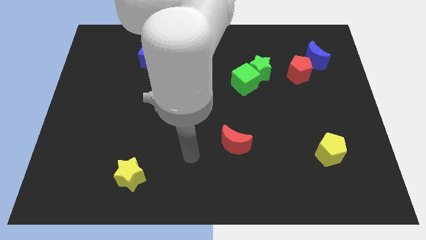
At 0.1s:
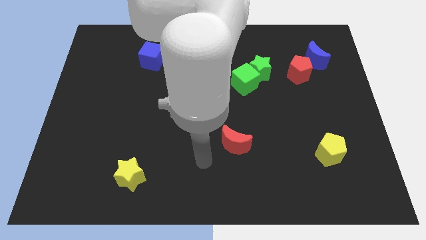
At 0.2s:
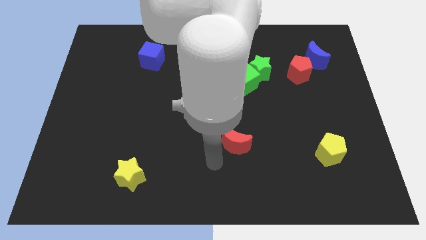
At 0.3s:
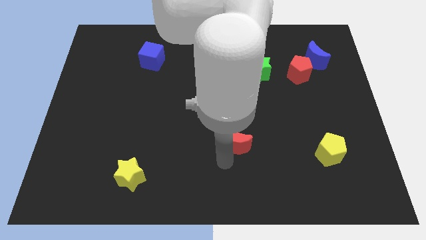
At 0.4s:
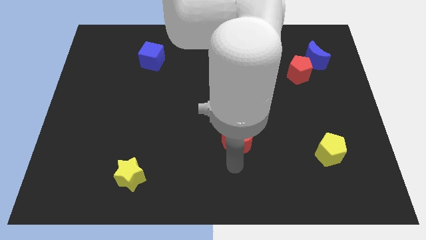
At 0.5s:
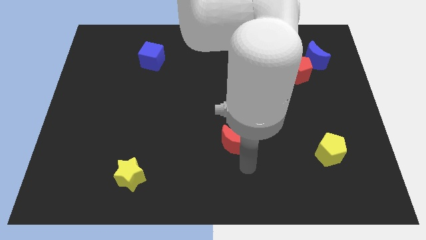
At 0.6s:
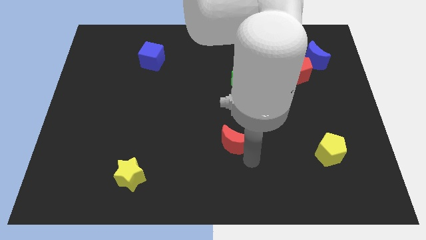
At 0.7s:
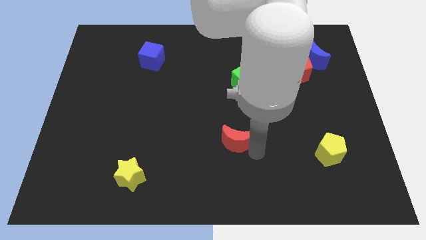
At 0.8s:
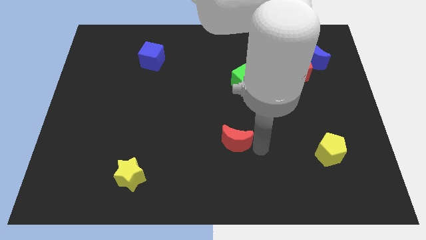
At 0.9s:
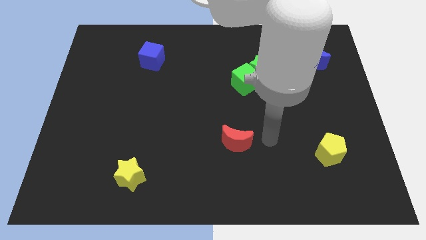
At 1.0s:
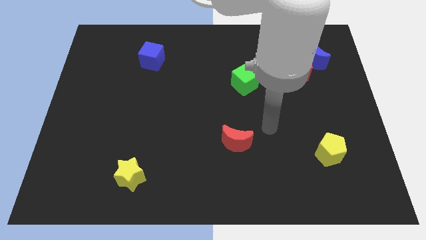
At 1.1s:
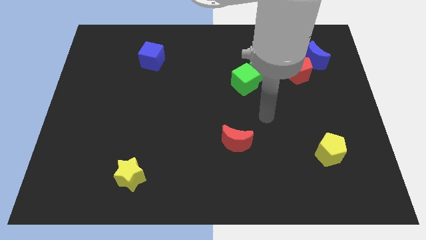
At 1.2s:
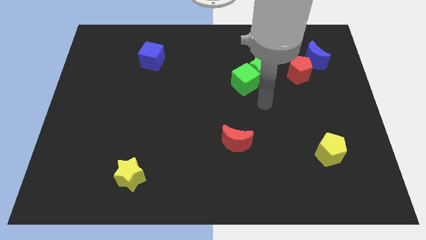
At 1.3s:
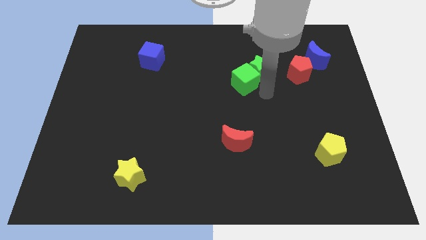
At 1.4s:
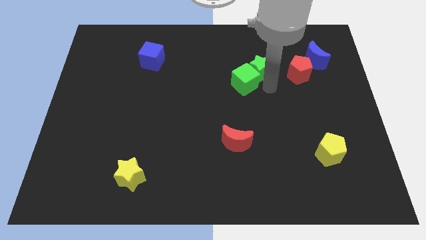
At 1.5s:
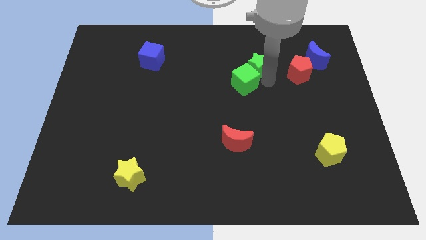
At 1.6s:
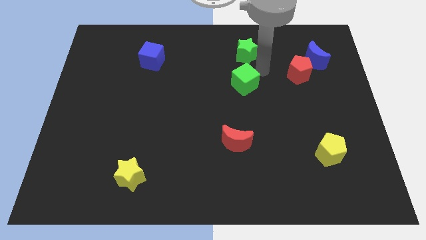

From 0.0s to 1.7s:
move the green cube away from the green star

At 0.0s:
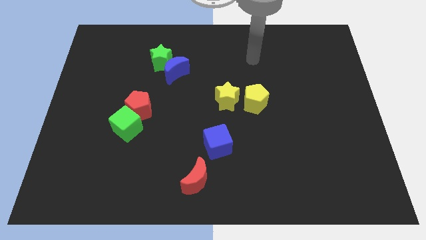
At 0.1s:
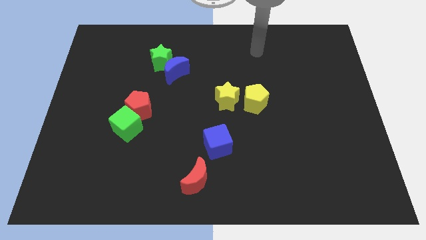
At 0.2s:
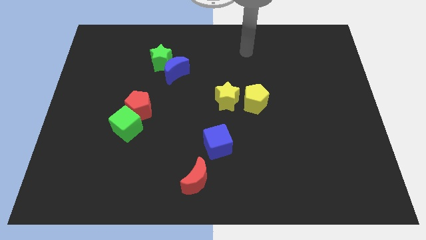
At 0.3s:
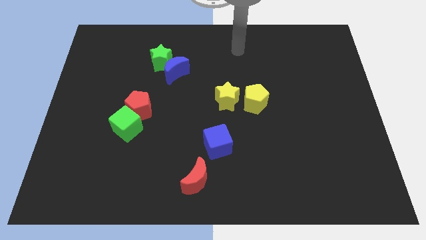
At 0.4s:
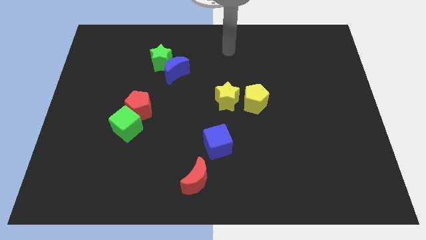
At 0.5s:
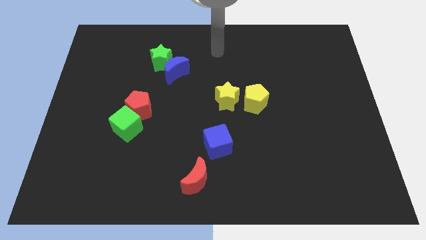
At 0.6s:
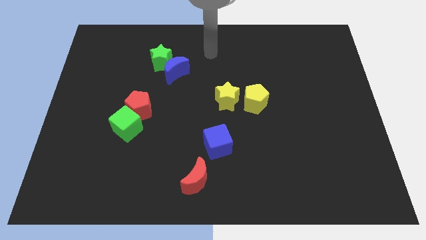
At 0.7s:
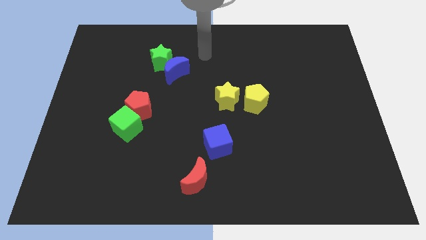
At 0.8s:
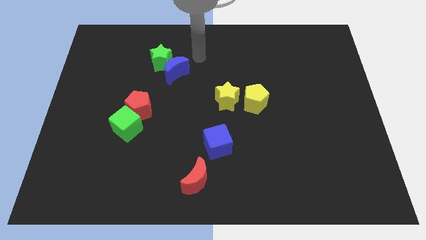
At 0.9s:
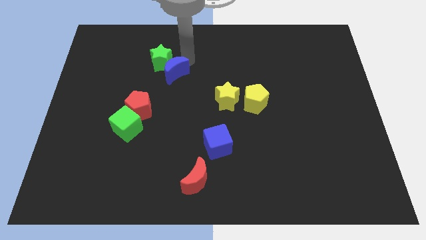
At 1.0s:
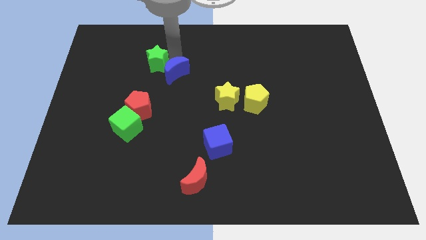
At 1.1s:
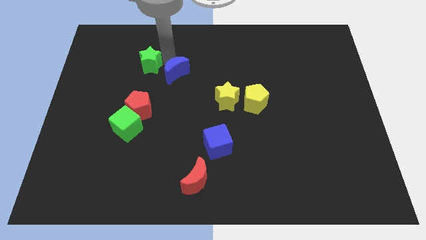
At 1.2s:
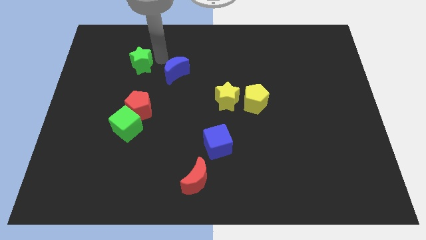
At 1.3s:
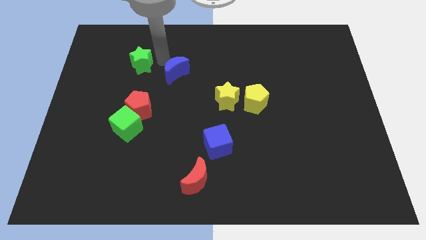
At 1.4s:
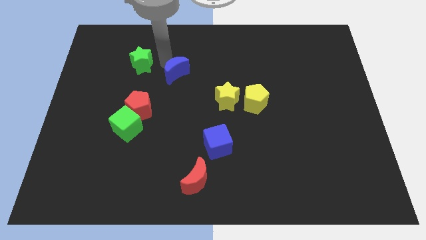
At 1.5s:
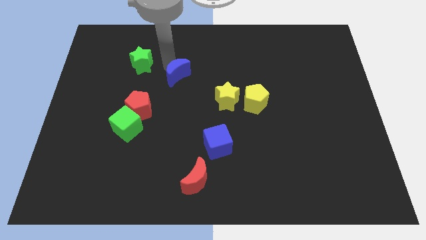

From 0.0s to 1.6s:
separate the blue moon from the green star

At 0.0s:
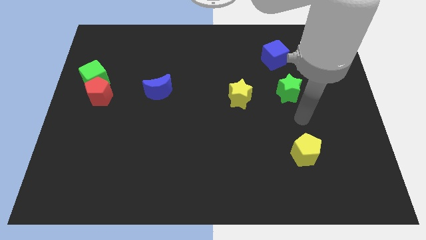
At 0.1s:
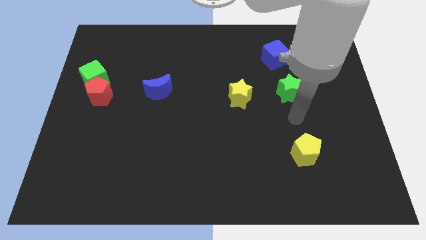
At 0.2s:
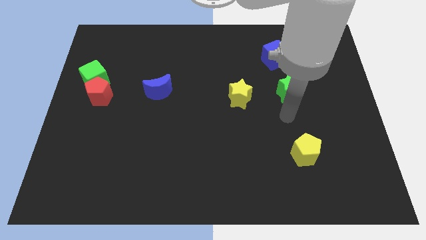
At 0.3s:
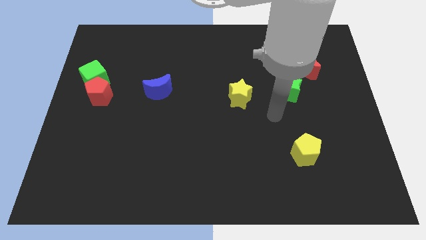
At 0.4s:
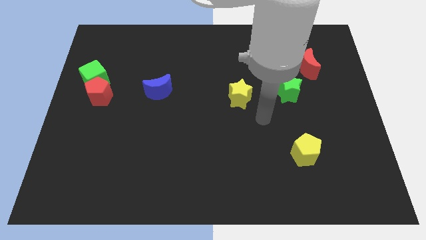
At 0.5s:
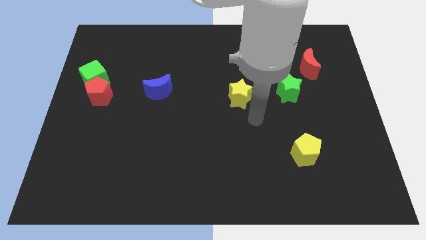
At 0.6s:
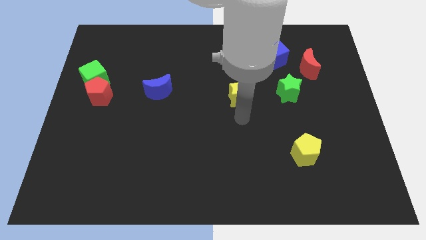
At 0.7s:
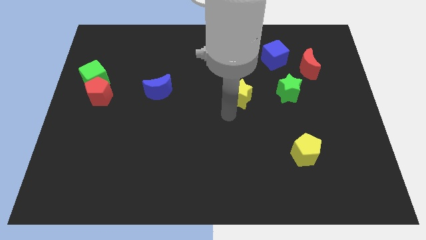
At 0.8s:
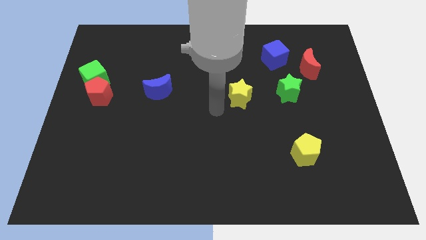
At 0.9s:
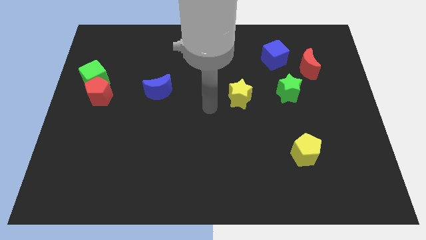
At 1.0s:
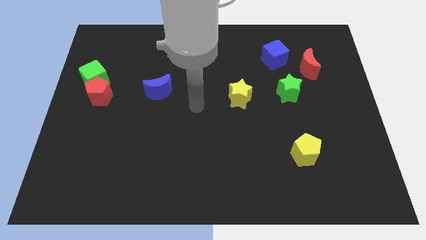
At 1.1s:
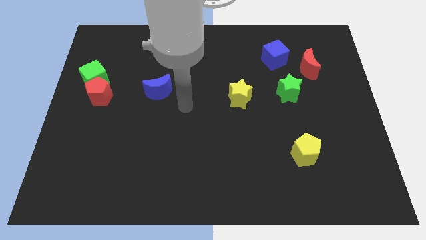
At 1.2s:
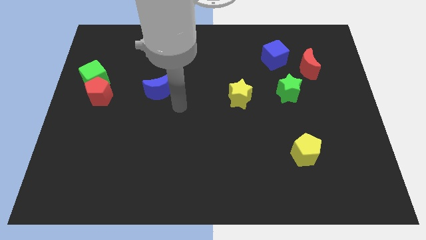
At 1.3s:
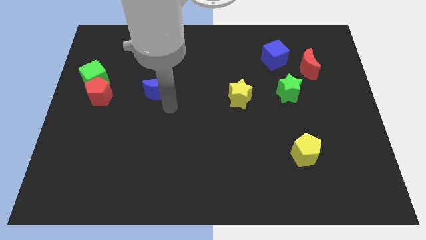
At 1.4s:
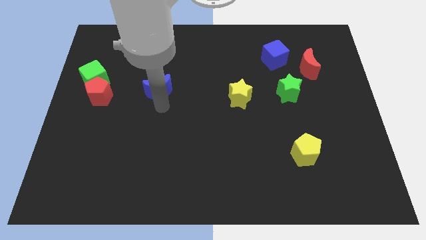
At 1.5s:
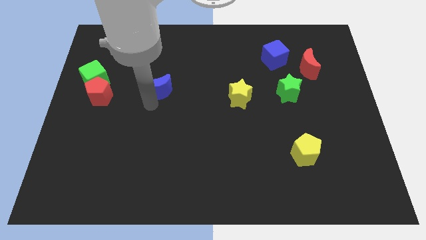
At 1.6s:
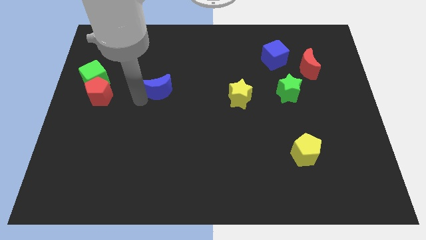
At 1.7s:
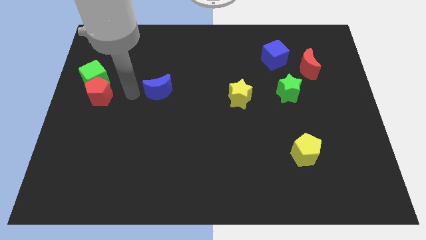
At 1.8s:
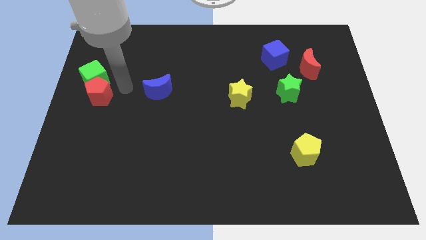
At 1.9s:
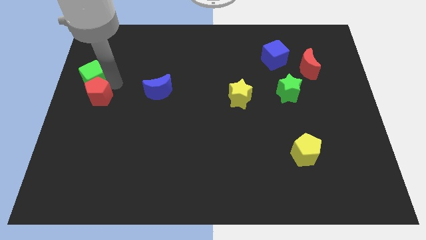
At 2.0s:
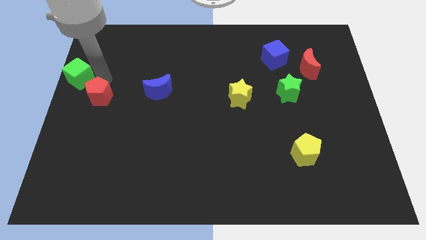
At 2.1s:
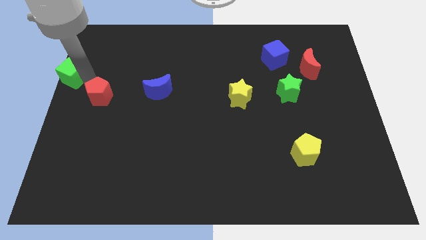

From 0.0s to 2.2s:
move the red pentagon away from the green cube

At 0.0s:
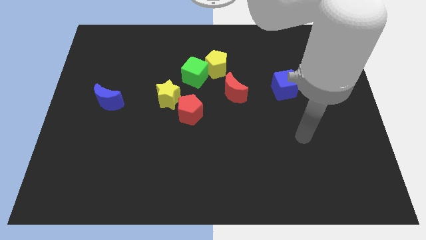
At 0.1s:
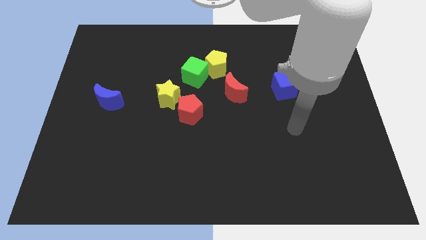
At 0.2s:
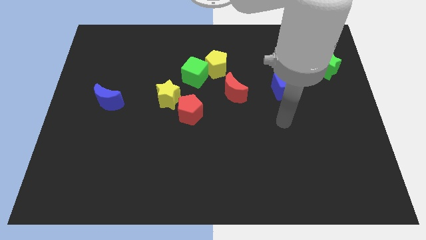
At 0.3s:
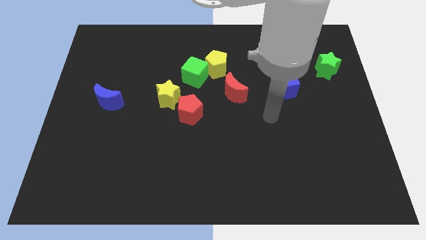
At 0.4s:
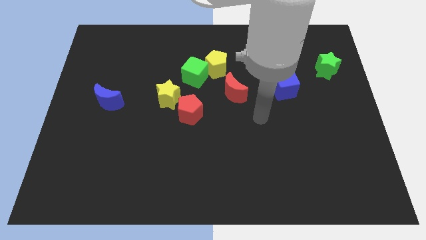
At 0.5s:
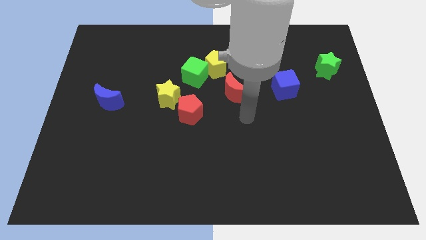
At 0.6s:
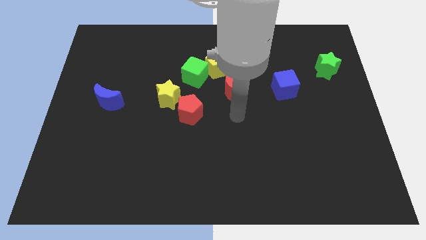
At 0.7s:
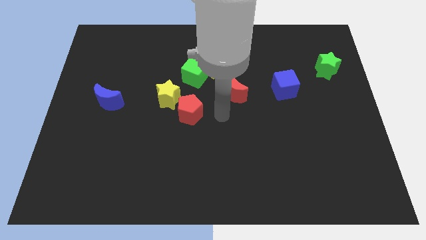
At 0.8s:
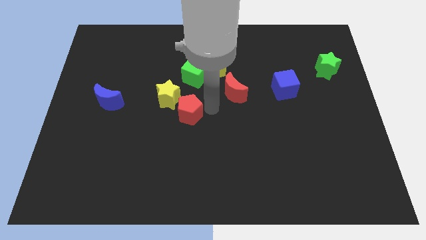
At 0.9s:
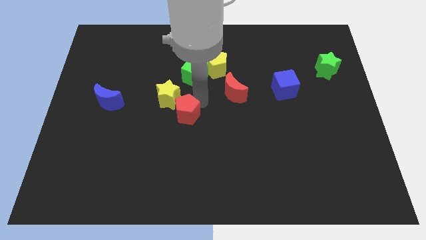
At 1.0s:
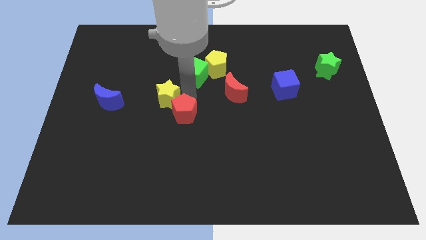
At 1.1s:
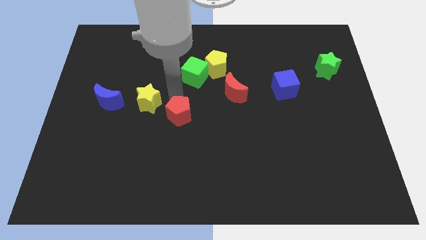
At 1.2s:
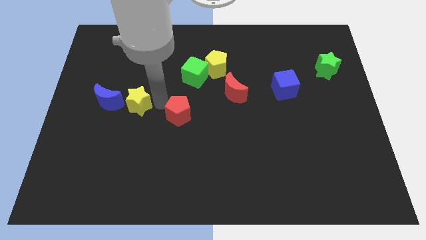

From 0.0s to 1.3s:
separate the red pentagon from the yellow star

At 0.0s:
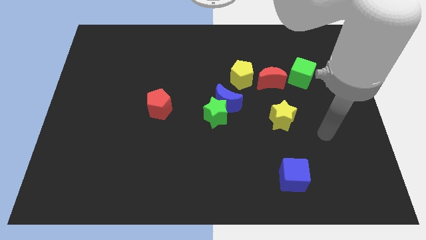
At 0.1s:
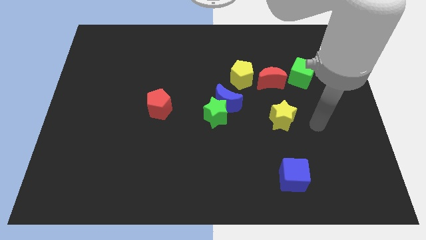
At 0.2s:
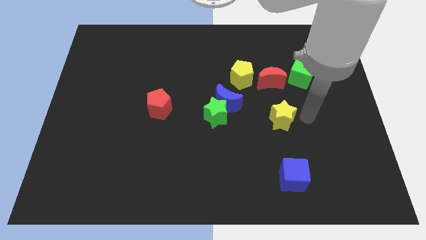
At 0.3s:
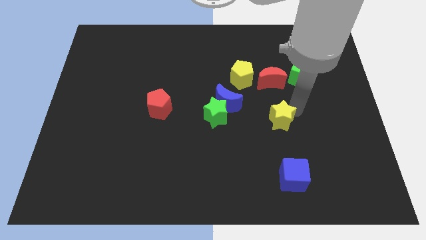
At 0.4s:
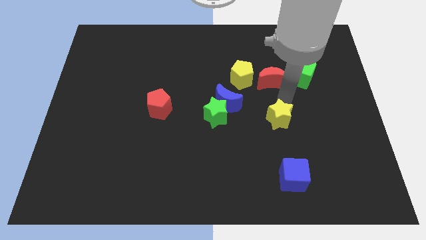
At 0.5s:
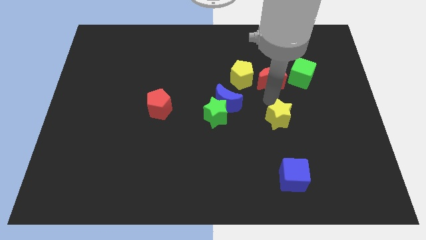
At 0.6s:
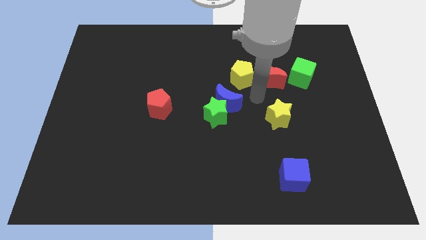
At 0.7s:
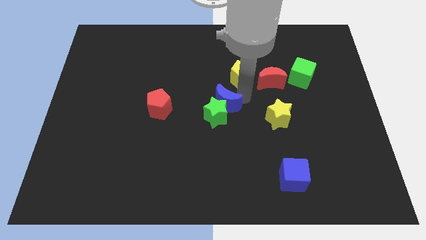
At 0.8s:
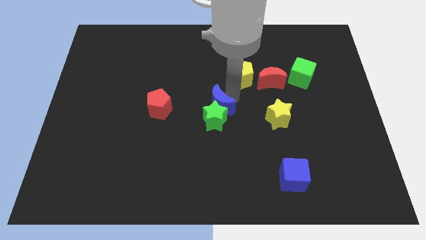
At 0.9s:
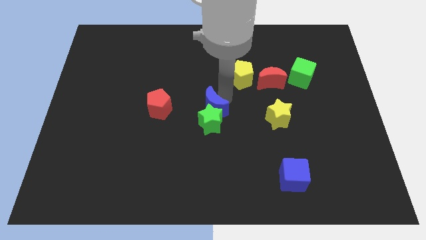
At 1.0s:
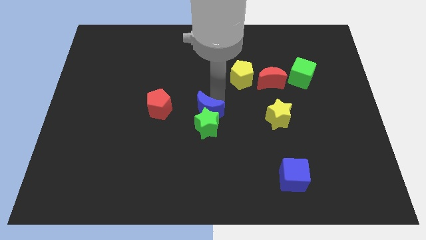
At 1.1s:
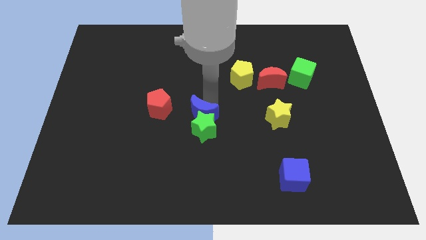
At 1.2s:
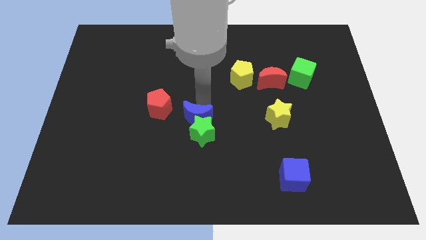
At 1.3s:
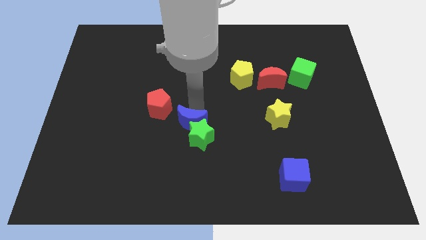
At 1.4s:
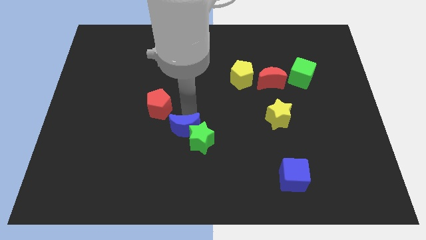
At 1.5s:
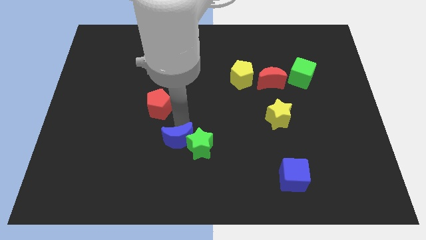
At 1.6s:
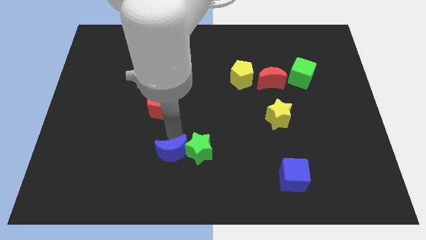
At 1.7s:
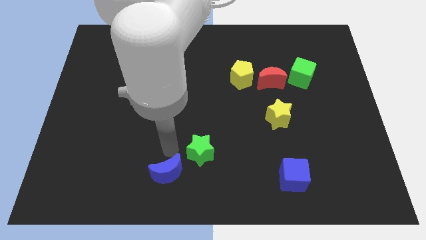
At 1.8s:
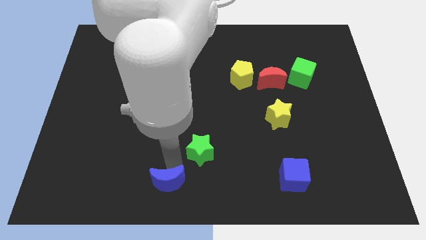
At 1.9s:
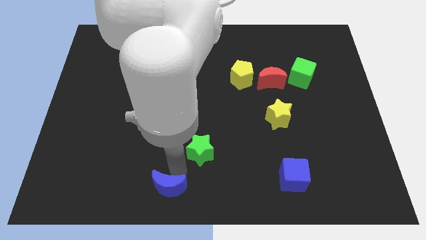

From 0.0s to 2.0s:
separate the green star from the blue moon

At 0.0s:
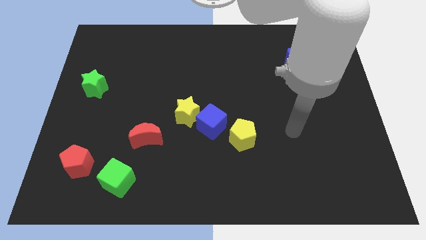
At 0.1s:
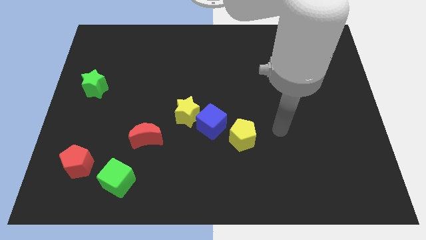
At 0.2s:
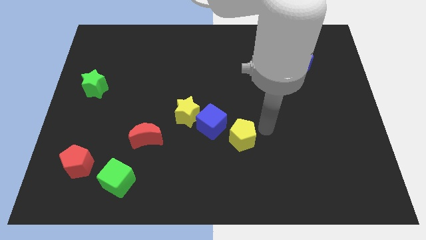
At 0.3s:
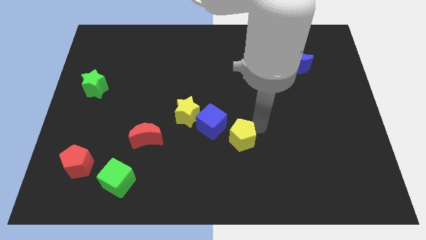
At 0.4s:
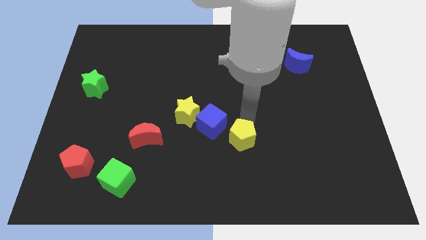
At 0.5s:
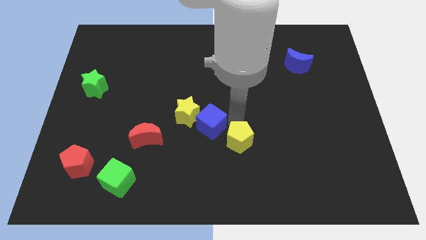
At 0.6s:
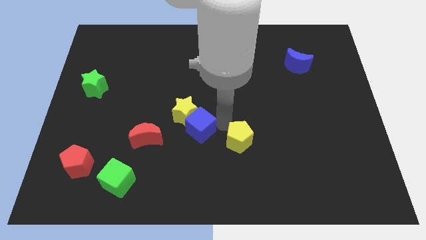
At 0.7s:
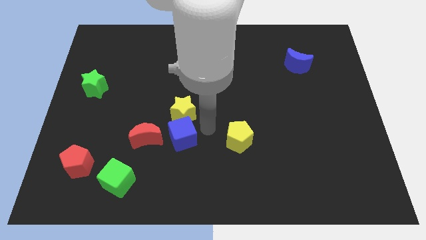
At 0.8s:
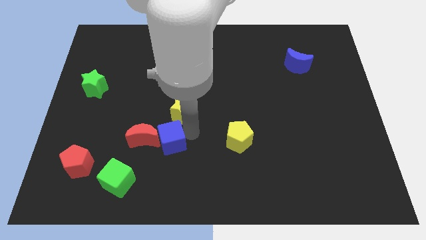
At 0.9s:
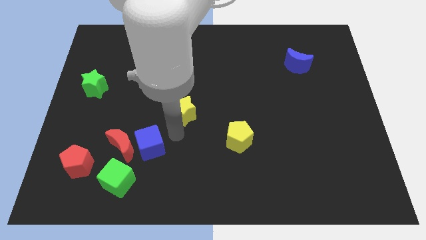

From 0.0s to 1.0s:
move the yellow star away from the blue cube
